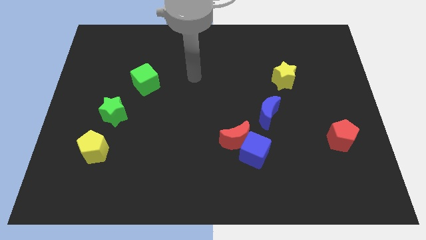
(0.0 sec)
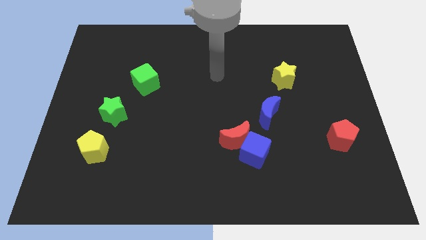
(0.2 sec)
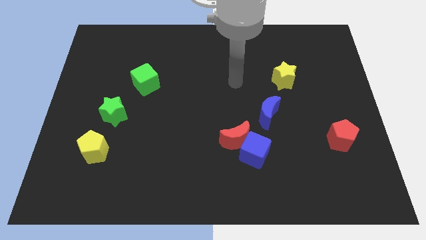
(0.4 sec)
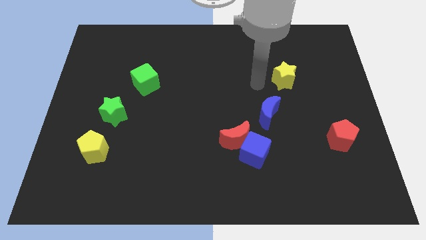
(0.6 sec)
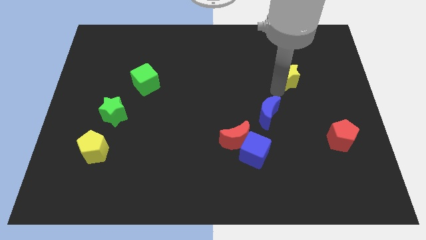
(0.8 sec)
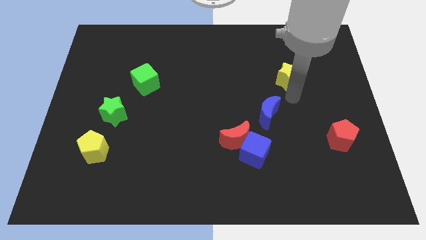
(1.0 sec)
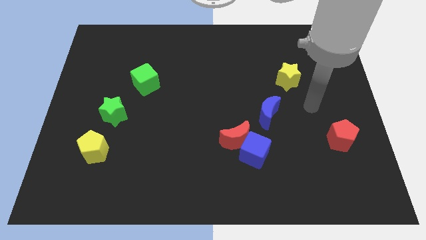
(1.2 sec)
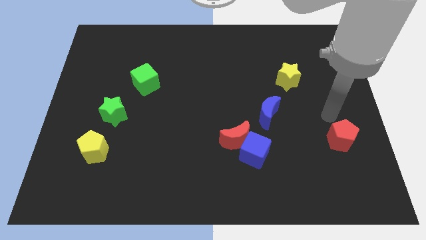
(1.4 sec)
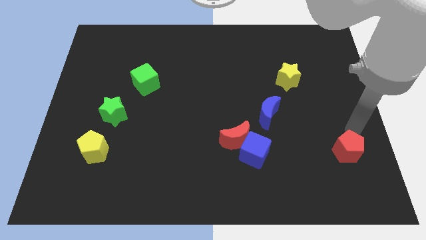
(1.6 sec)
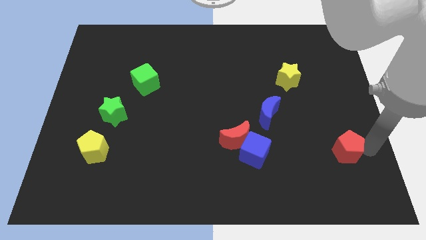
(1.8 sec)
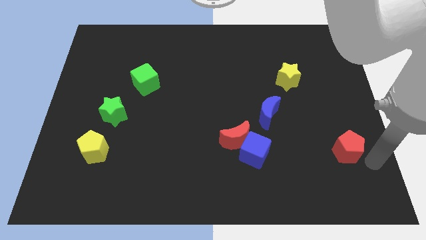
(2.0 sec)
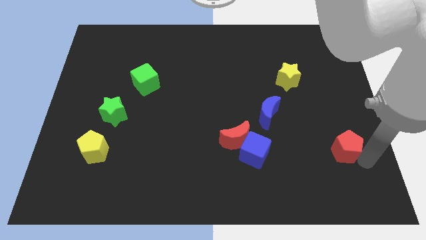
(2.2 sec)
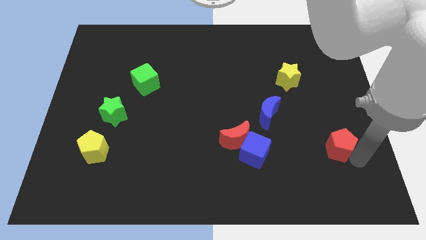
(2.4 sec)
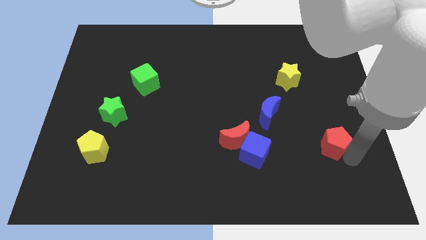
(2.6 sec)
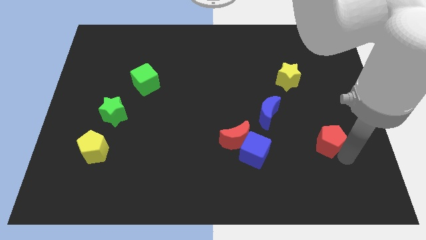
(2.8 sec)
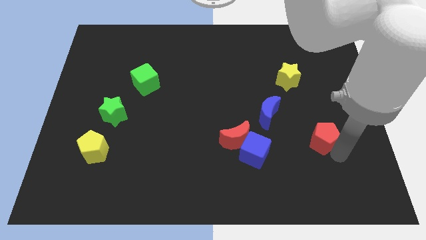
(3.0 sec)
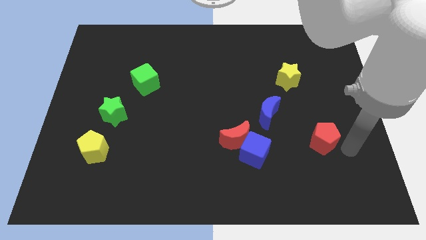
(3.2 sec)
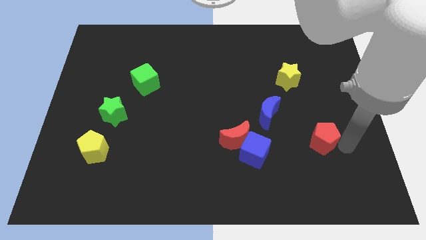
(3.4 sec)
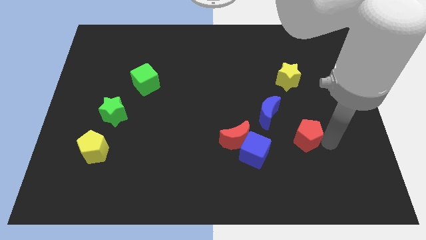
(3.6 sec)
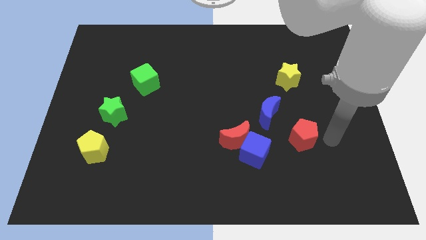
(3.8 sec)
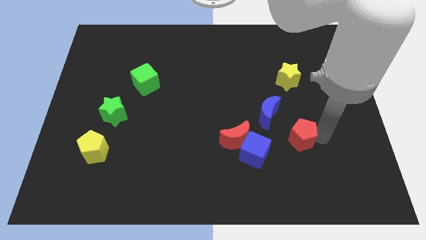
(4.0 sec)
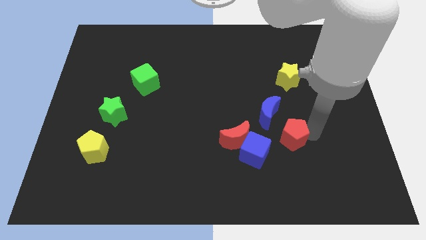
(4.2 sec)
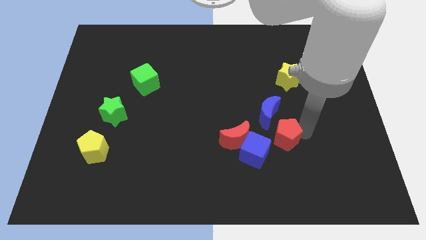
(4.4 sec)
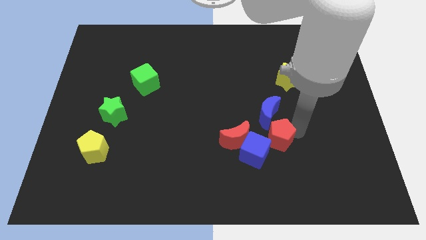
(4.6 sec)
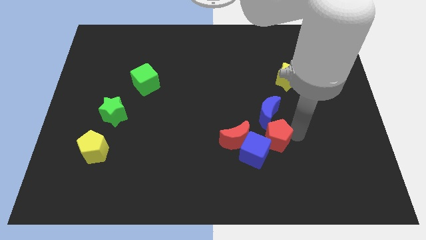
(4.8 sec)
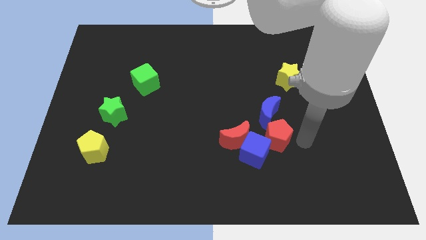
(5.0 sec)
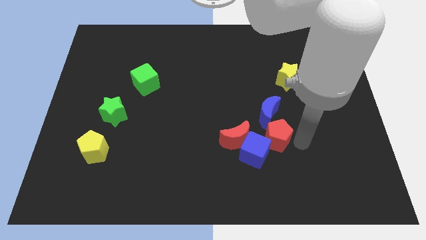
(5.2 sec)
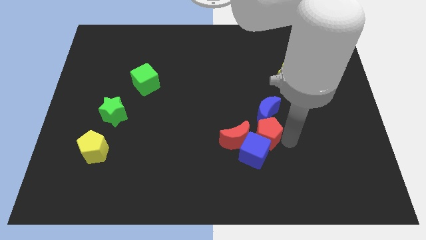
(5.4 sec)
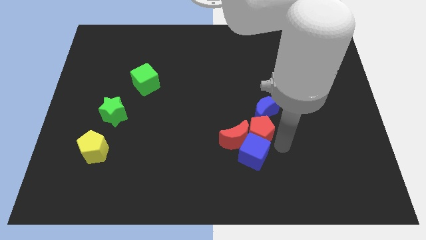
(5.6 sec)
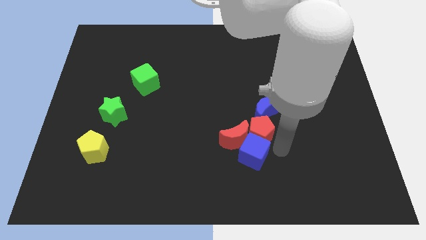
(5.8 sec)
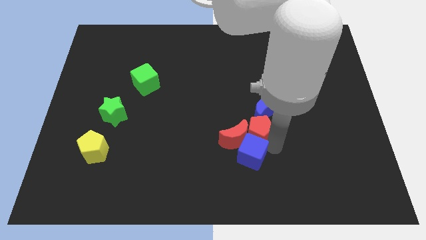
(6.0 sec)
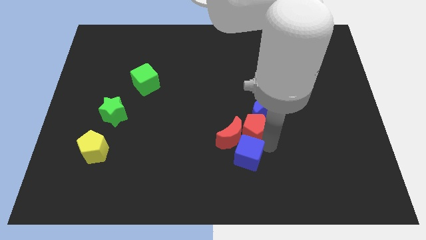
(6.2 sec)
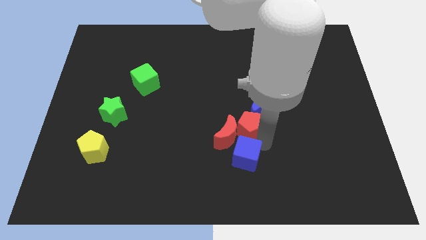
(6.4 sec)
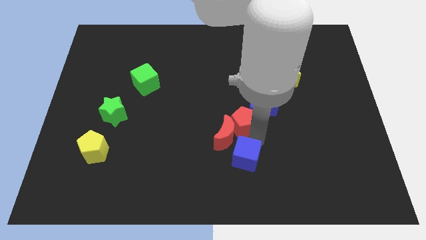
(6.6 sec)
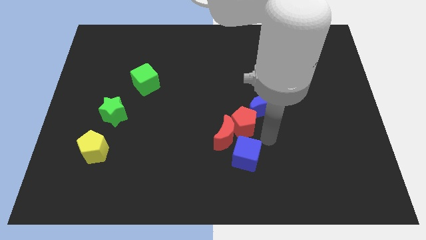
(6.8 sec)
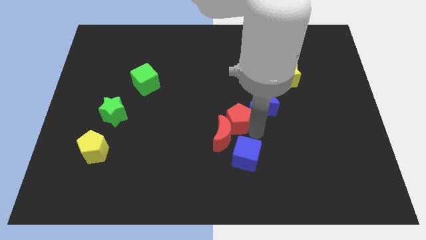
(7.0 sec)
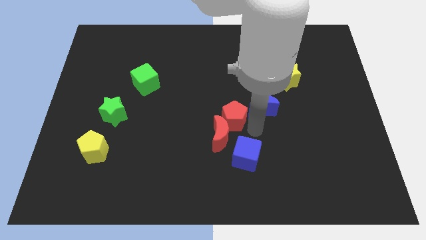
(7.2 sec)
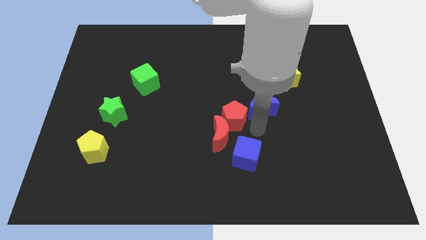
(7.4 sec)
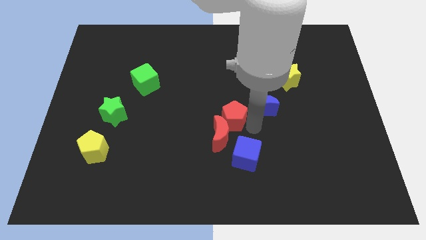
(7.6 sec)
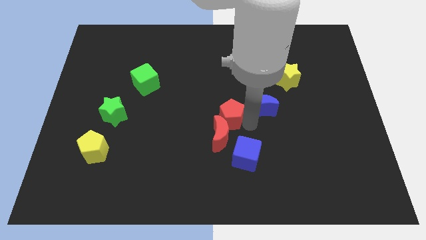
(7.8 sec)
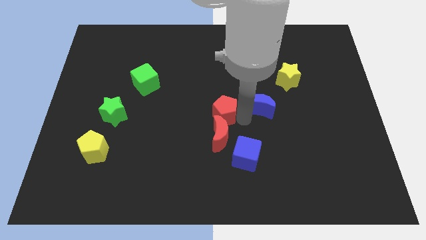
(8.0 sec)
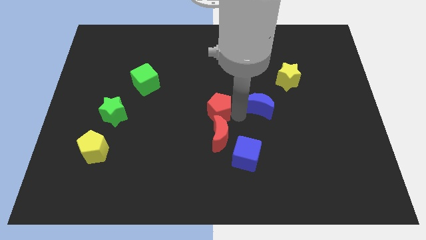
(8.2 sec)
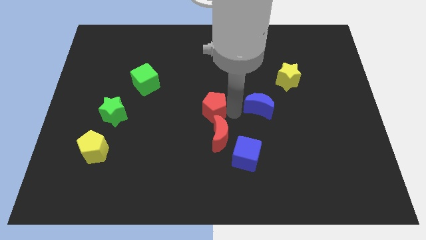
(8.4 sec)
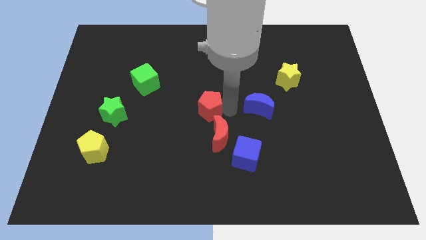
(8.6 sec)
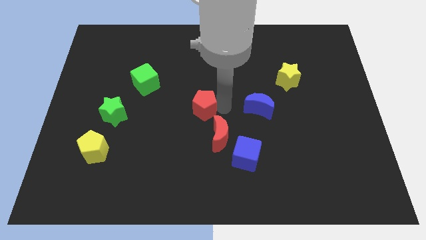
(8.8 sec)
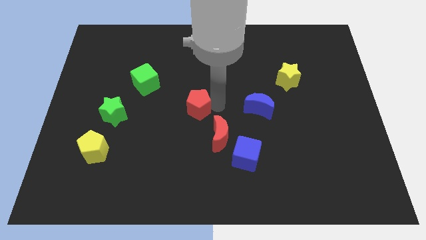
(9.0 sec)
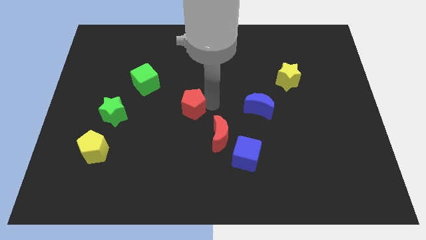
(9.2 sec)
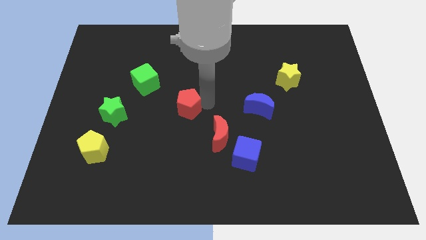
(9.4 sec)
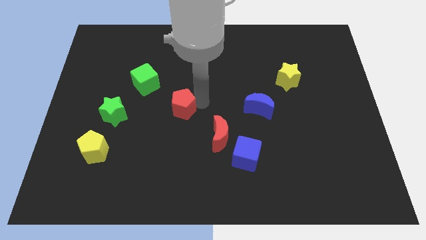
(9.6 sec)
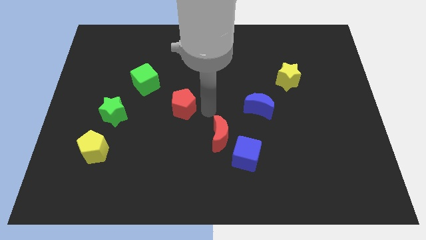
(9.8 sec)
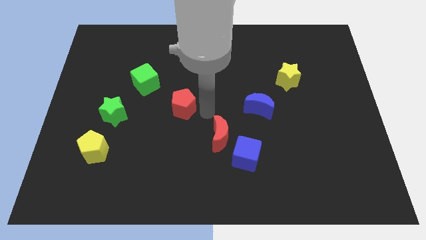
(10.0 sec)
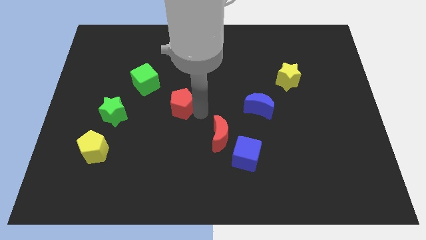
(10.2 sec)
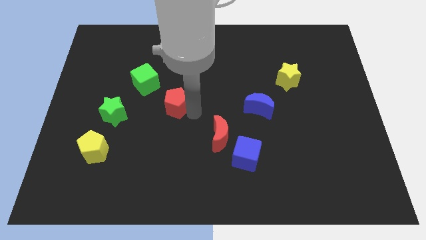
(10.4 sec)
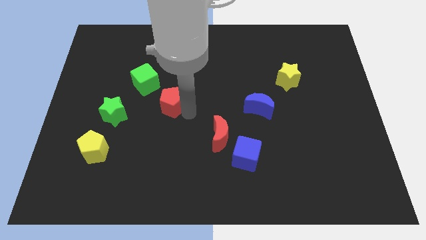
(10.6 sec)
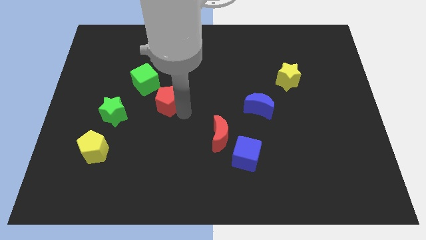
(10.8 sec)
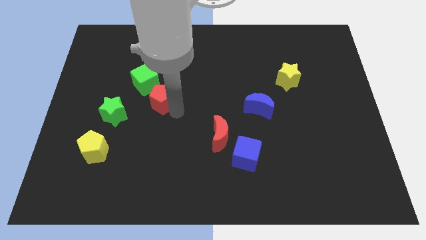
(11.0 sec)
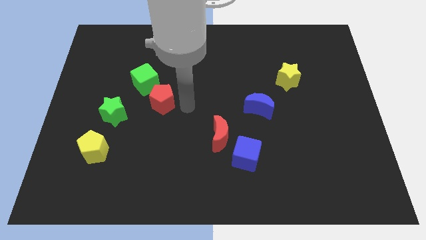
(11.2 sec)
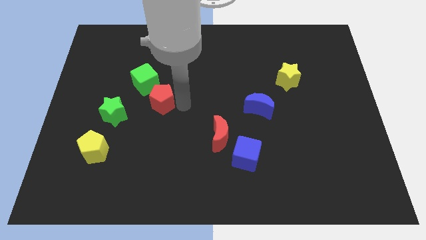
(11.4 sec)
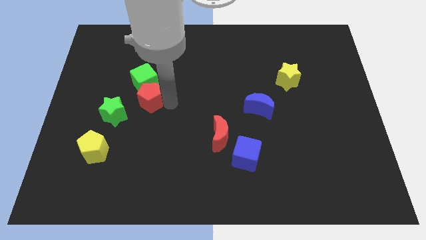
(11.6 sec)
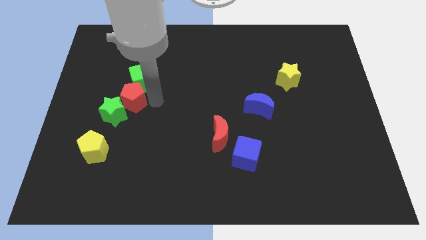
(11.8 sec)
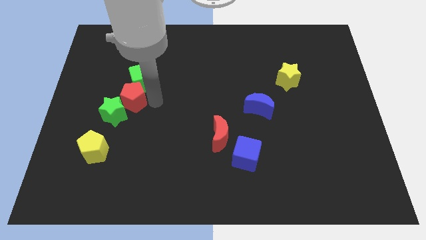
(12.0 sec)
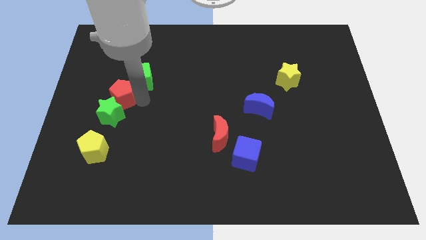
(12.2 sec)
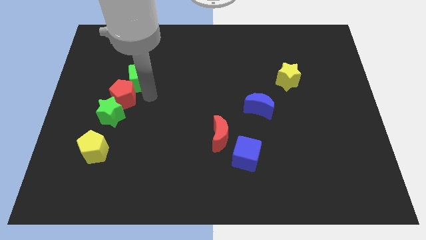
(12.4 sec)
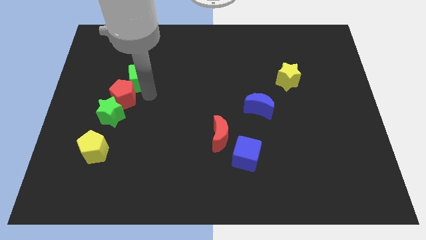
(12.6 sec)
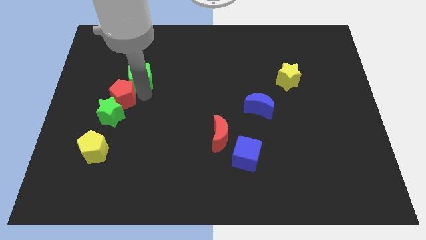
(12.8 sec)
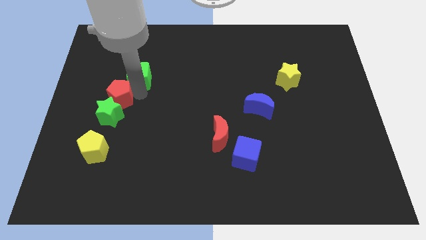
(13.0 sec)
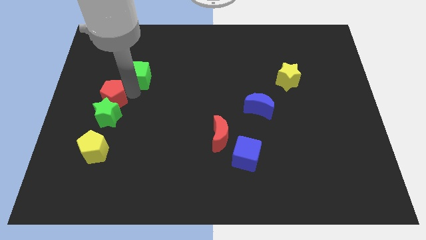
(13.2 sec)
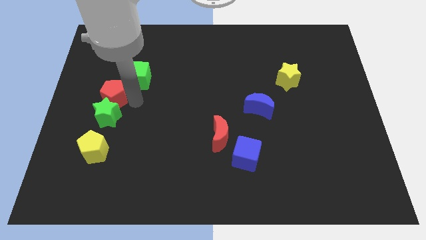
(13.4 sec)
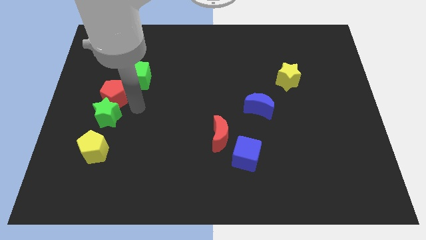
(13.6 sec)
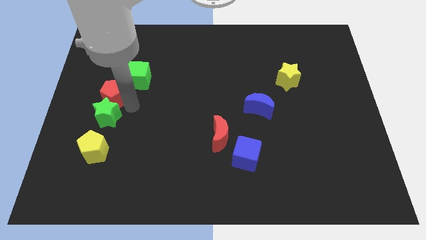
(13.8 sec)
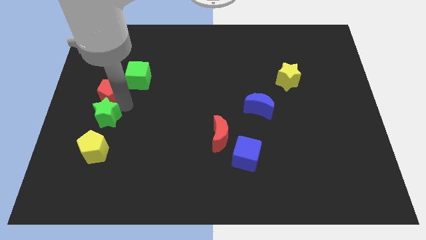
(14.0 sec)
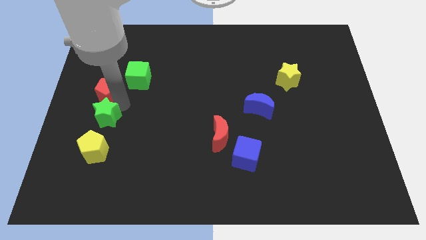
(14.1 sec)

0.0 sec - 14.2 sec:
move the red pentagon to the left side
